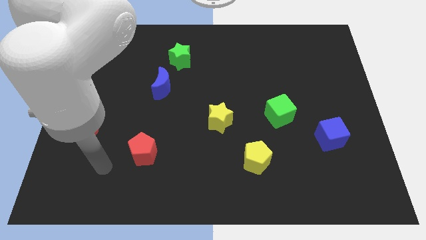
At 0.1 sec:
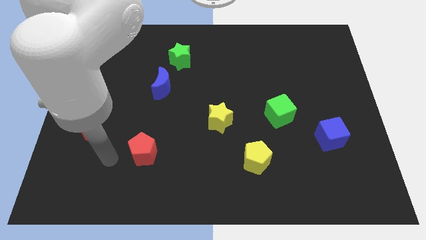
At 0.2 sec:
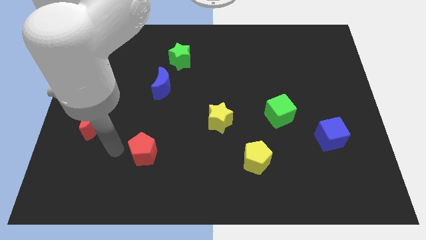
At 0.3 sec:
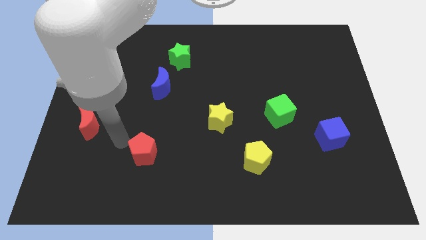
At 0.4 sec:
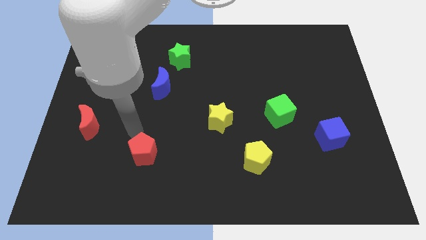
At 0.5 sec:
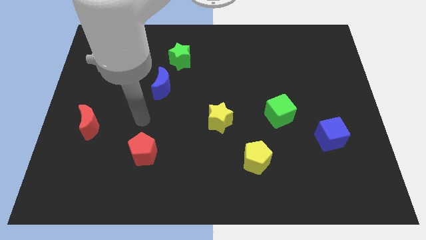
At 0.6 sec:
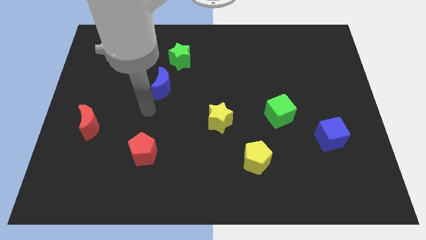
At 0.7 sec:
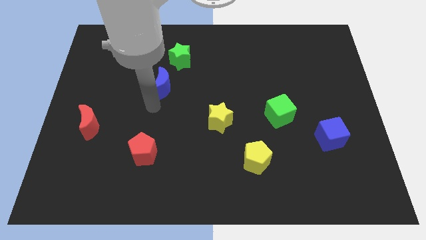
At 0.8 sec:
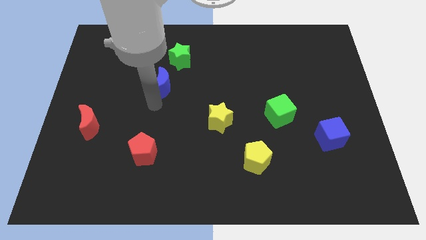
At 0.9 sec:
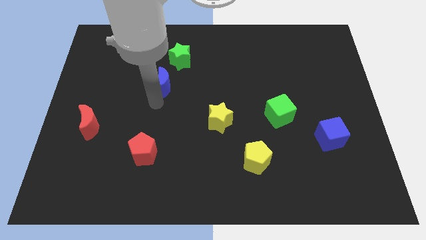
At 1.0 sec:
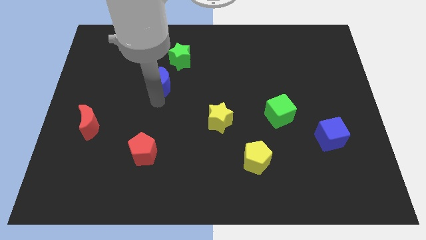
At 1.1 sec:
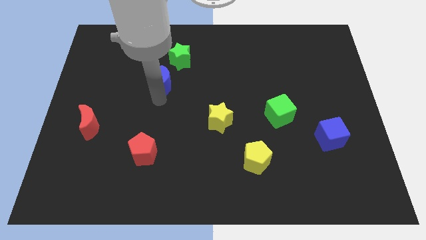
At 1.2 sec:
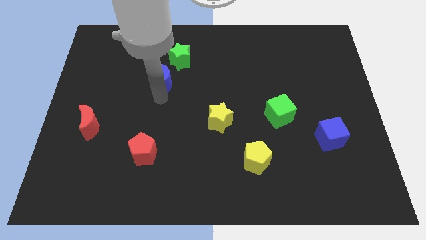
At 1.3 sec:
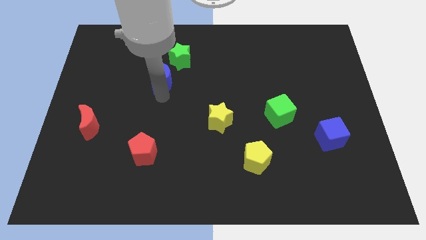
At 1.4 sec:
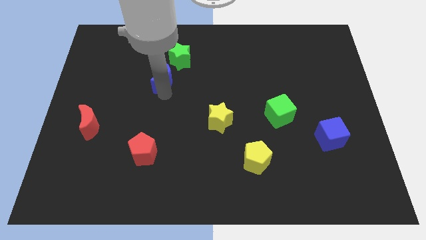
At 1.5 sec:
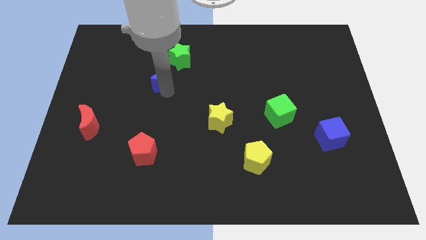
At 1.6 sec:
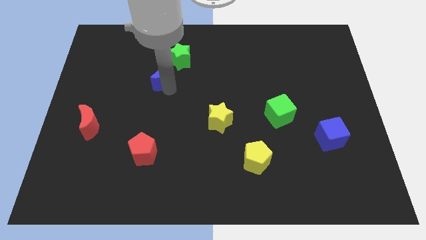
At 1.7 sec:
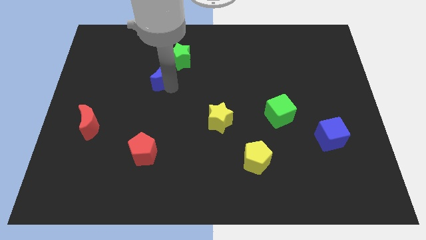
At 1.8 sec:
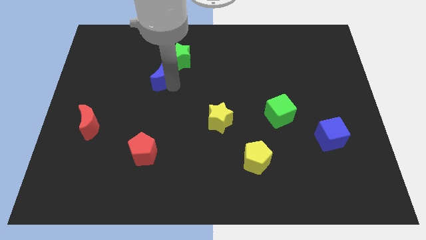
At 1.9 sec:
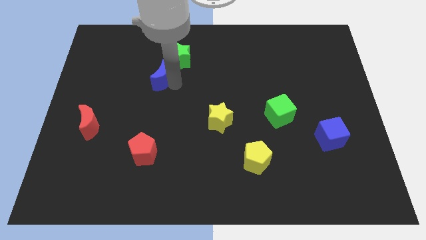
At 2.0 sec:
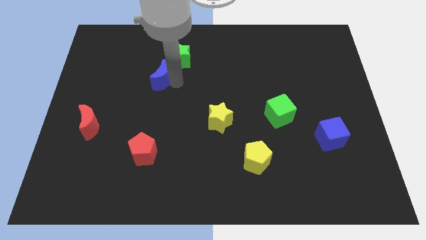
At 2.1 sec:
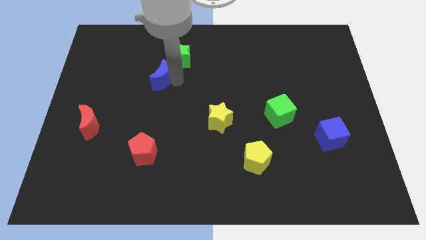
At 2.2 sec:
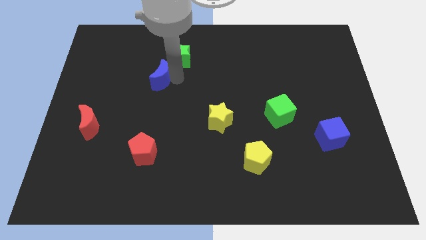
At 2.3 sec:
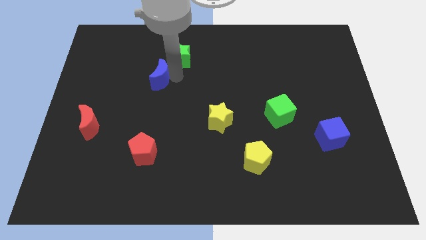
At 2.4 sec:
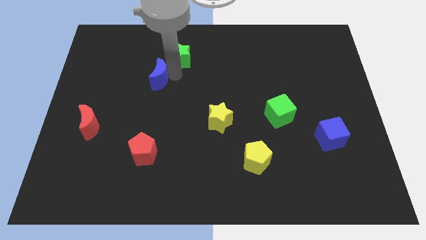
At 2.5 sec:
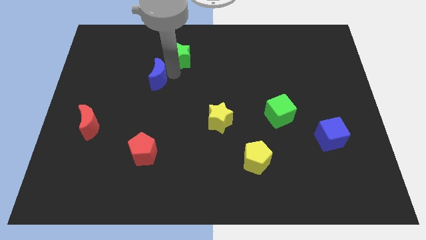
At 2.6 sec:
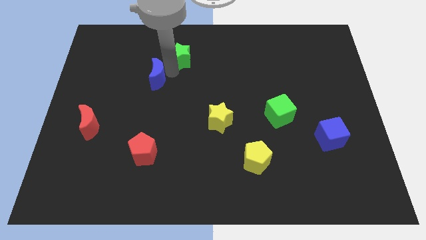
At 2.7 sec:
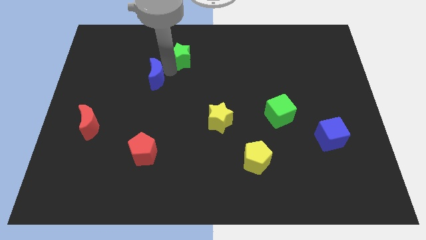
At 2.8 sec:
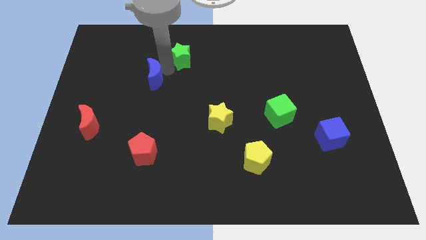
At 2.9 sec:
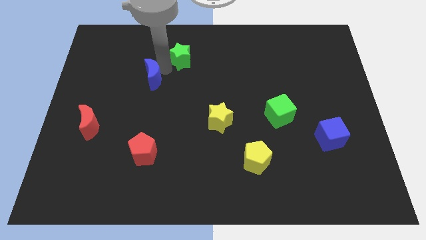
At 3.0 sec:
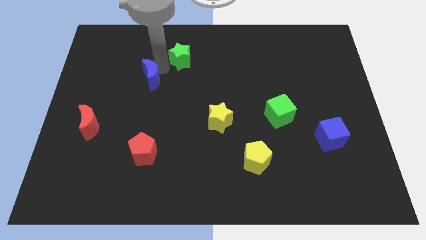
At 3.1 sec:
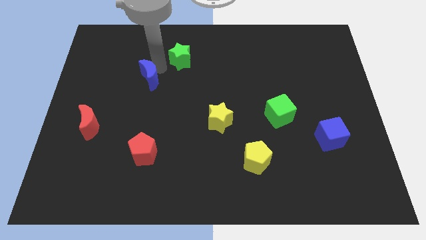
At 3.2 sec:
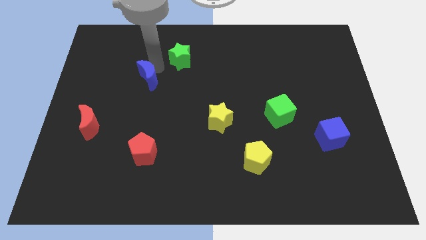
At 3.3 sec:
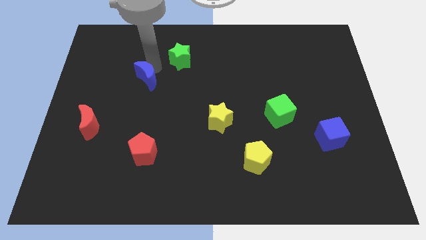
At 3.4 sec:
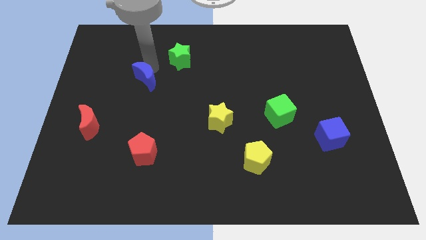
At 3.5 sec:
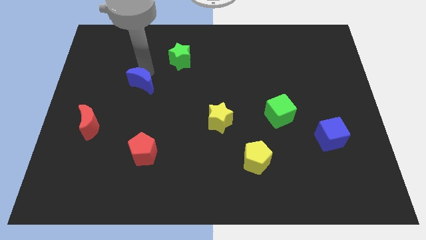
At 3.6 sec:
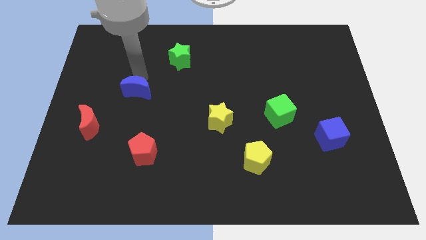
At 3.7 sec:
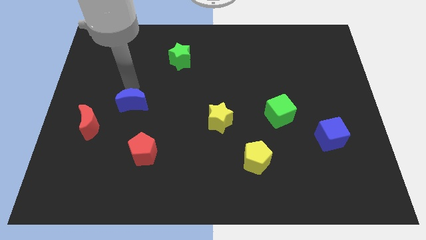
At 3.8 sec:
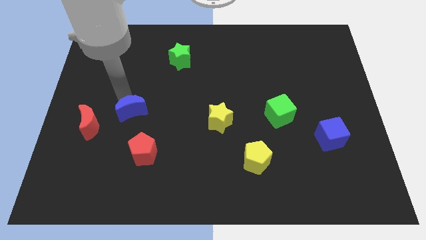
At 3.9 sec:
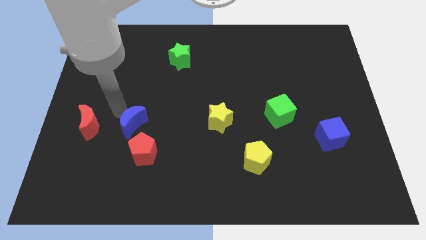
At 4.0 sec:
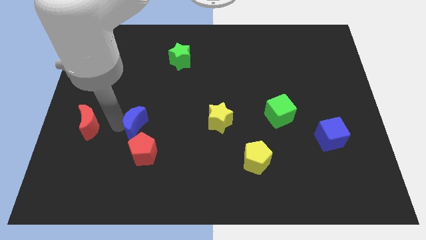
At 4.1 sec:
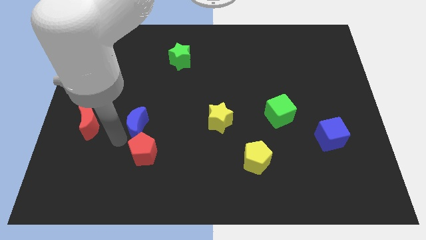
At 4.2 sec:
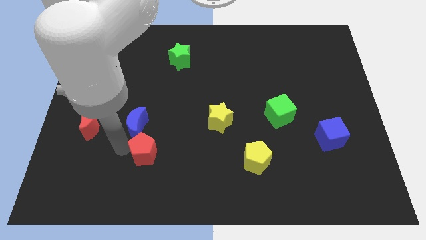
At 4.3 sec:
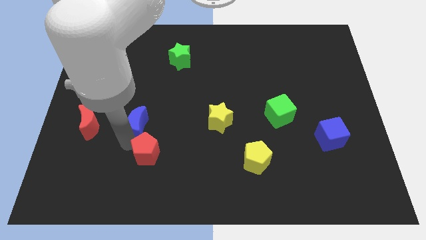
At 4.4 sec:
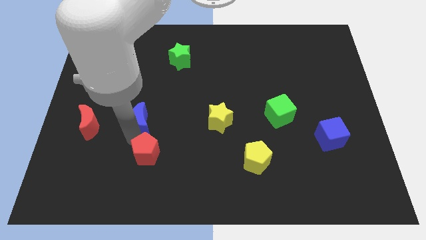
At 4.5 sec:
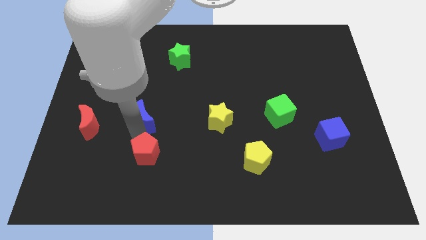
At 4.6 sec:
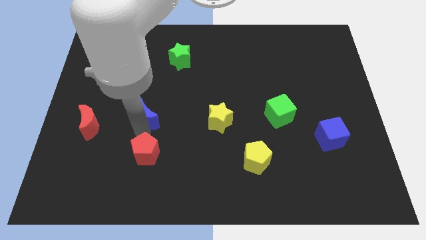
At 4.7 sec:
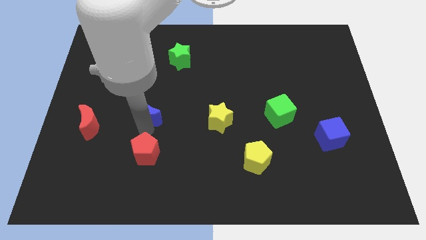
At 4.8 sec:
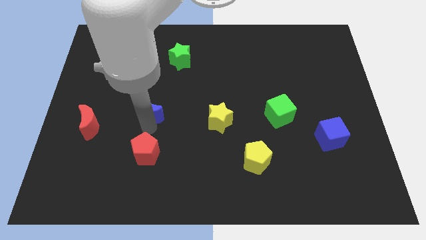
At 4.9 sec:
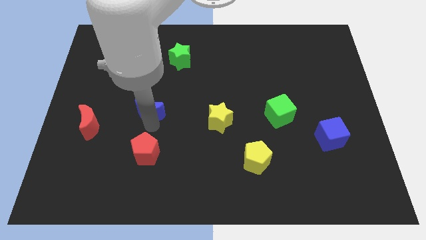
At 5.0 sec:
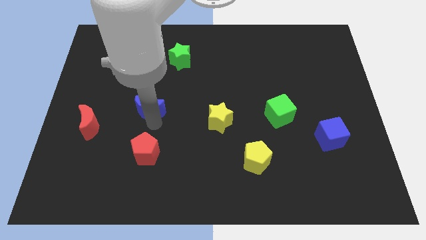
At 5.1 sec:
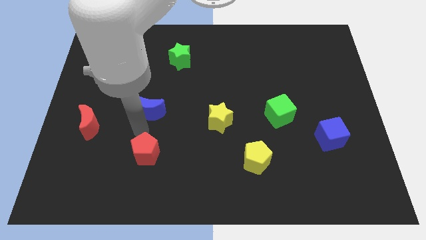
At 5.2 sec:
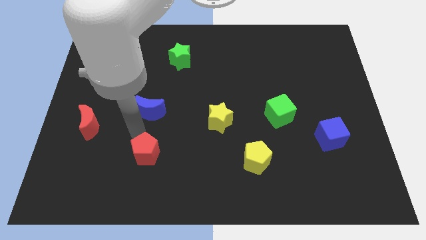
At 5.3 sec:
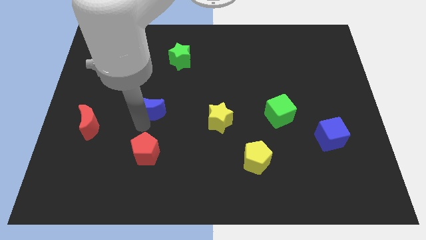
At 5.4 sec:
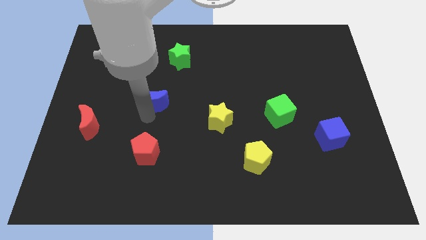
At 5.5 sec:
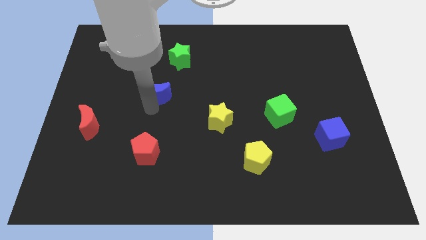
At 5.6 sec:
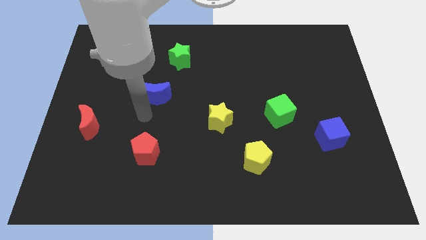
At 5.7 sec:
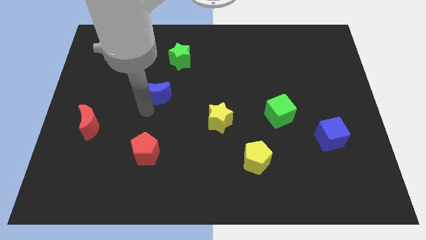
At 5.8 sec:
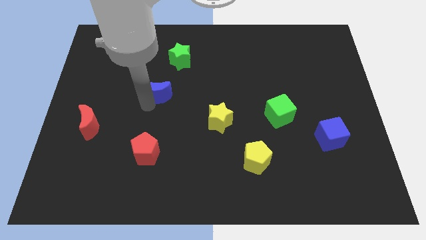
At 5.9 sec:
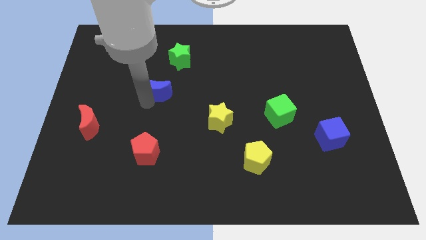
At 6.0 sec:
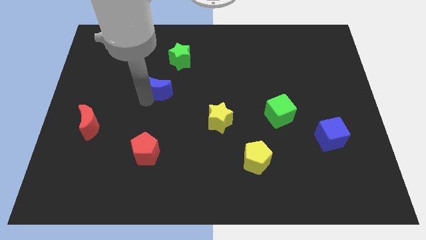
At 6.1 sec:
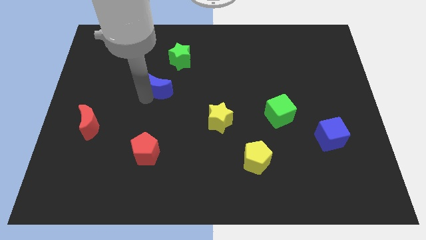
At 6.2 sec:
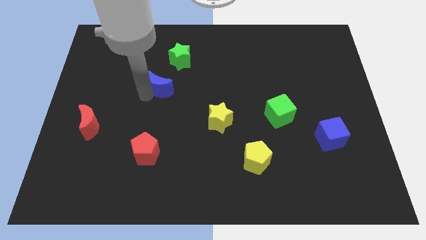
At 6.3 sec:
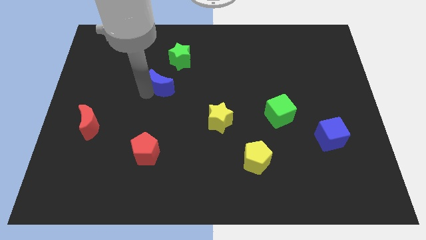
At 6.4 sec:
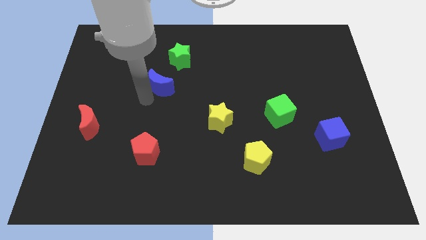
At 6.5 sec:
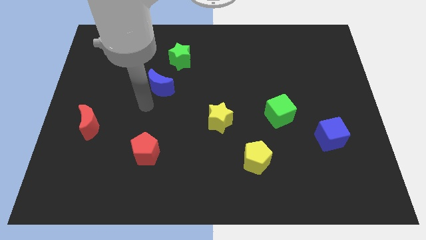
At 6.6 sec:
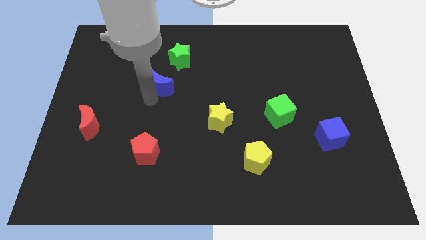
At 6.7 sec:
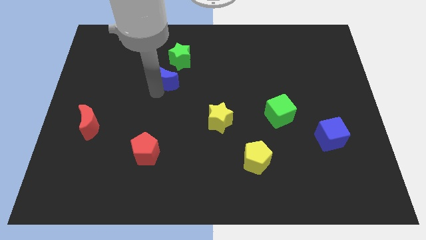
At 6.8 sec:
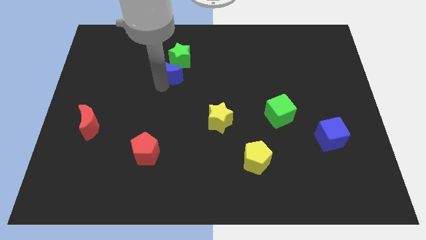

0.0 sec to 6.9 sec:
put the blue moon next to the green star
